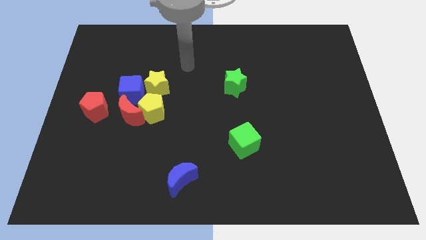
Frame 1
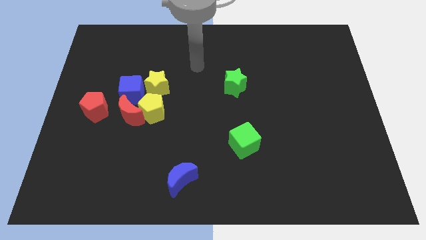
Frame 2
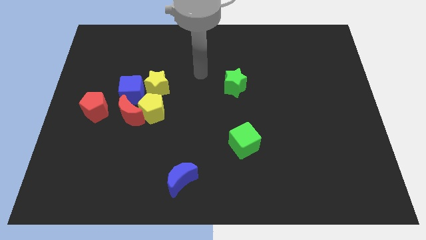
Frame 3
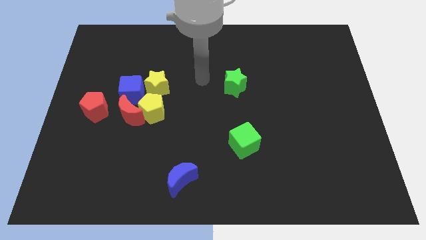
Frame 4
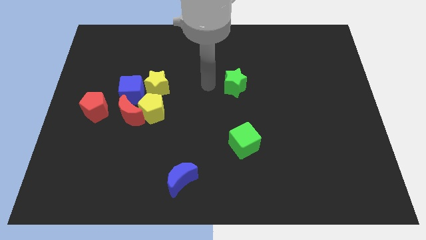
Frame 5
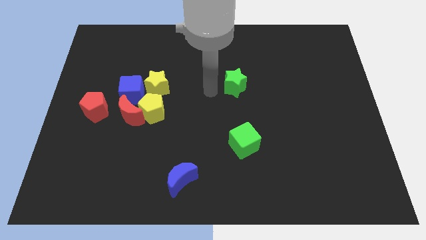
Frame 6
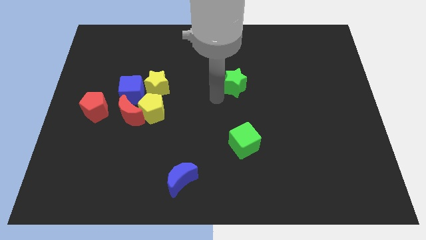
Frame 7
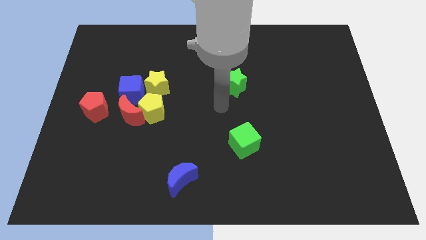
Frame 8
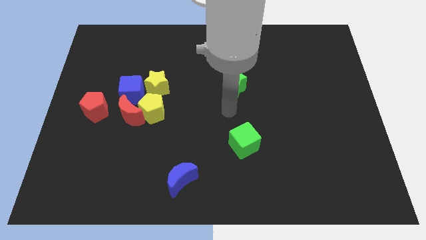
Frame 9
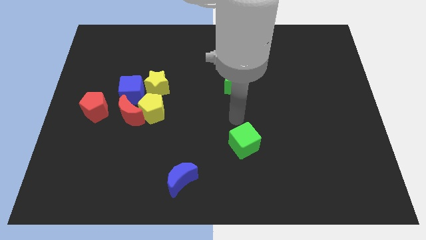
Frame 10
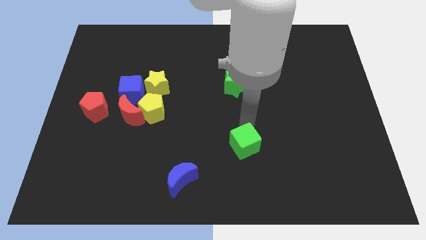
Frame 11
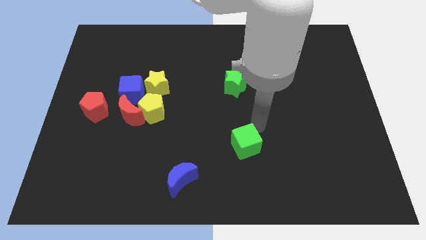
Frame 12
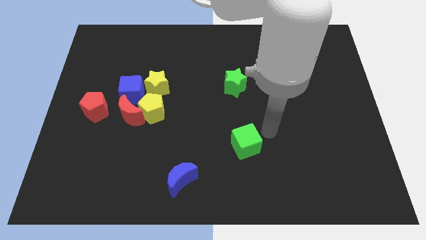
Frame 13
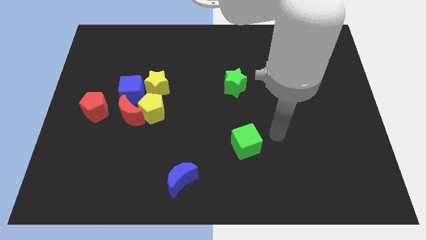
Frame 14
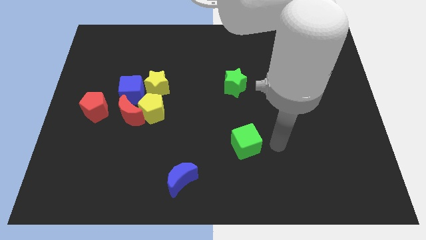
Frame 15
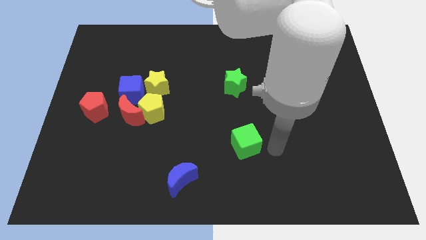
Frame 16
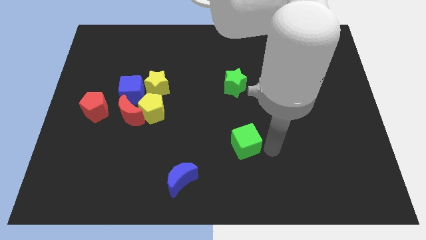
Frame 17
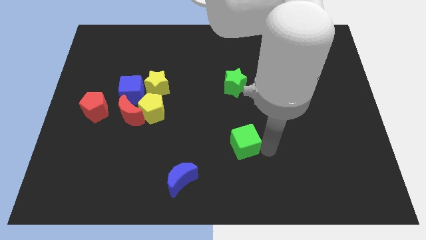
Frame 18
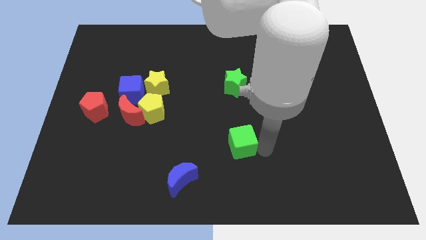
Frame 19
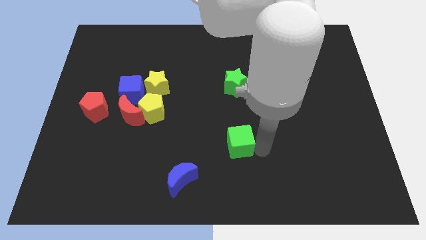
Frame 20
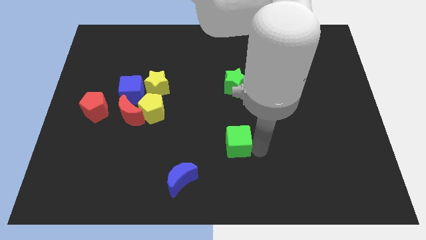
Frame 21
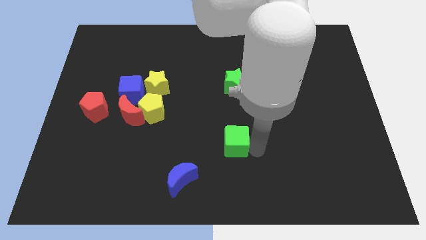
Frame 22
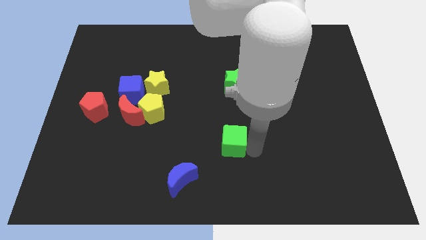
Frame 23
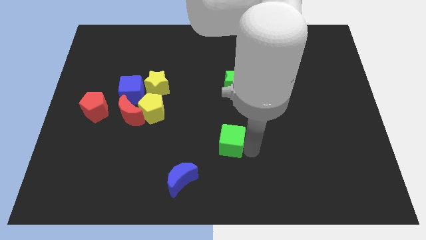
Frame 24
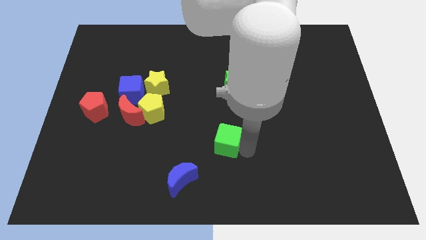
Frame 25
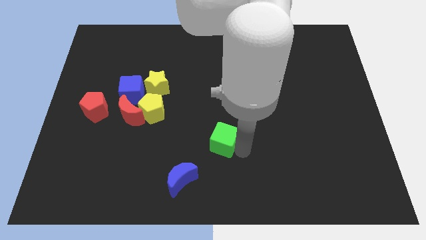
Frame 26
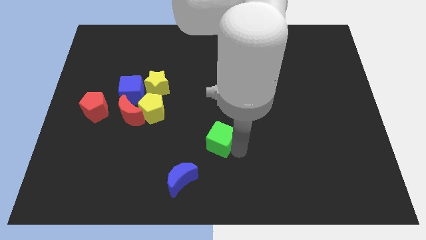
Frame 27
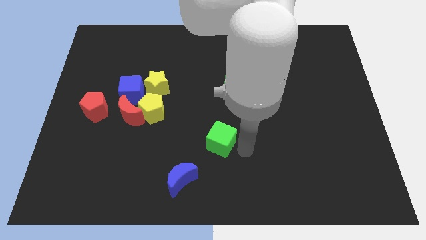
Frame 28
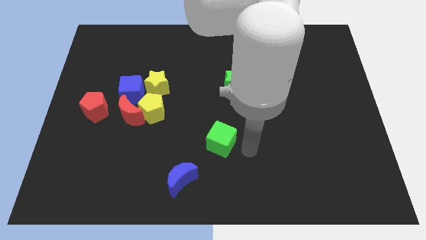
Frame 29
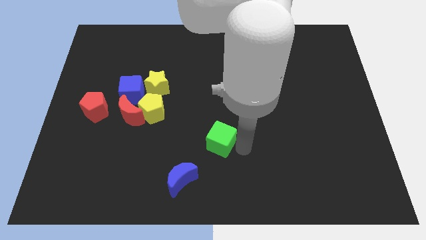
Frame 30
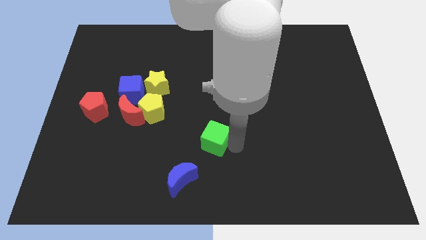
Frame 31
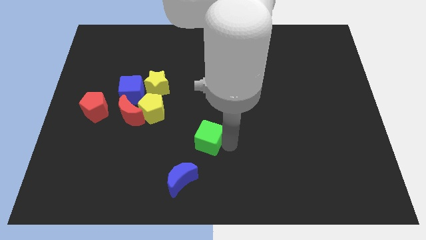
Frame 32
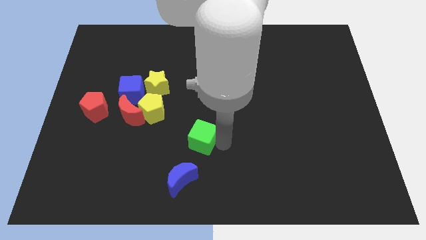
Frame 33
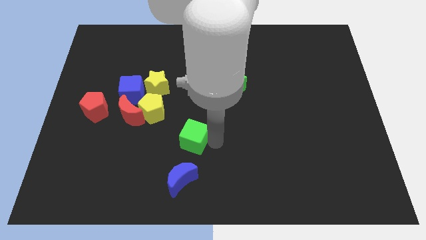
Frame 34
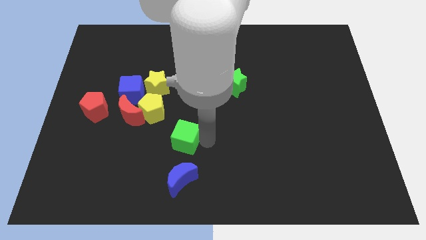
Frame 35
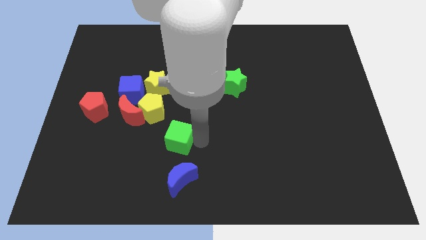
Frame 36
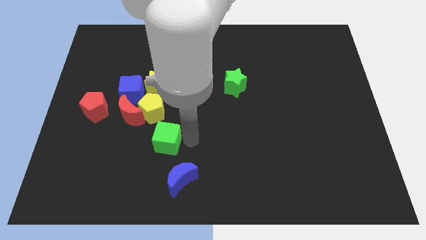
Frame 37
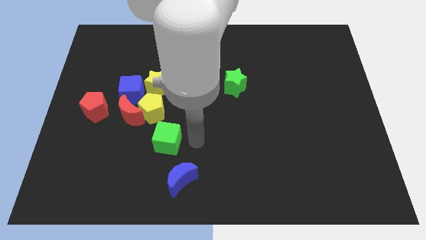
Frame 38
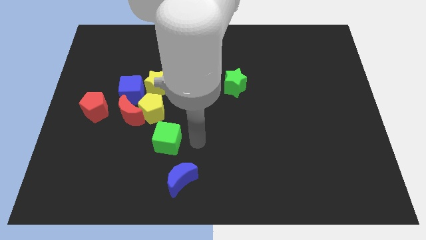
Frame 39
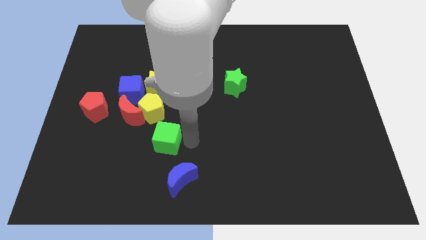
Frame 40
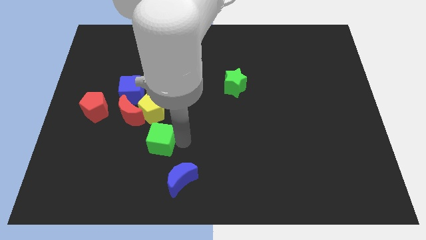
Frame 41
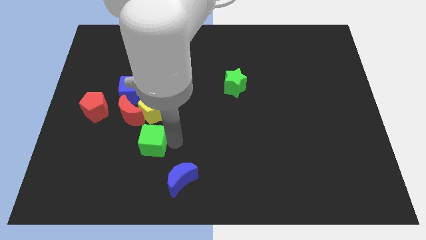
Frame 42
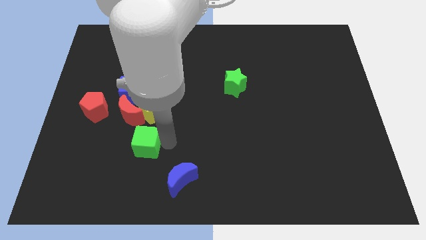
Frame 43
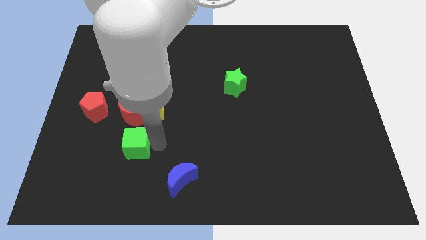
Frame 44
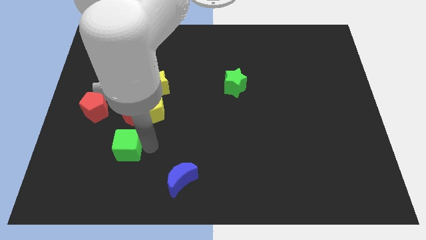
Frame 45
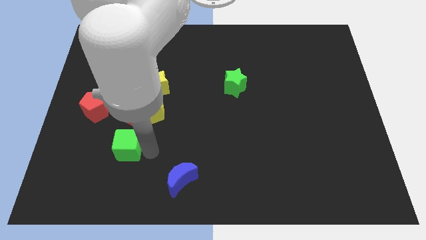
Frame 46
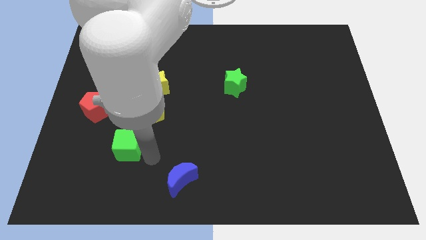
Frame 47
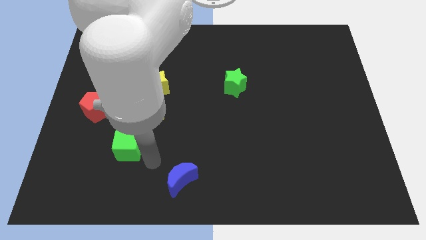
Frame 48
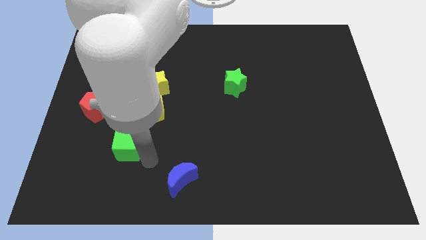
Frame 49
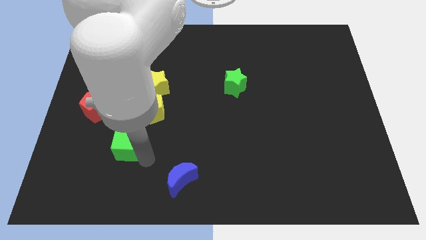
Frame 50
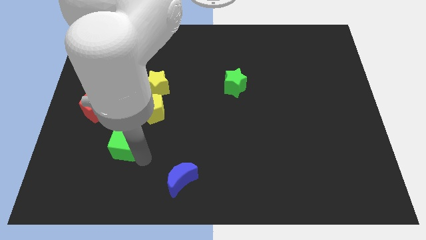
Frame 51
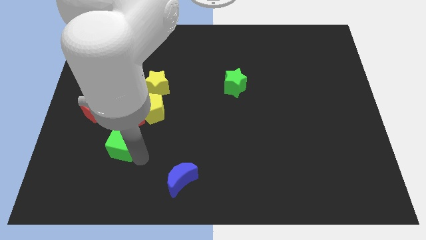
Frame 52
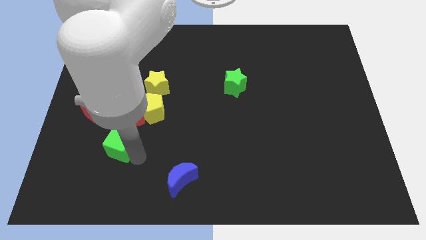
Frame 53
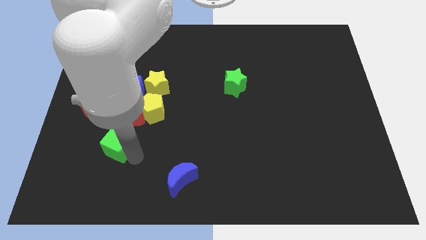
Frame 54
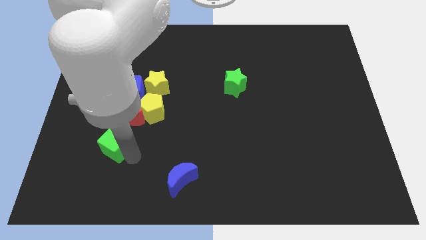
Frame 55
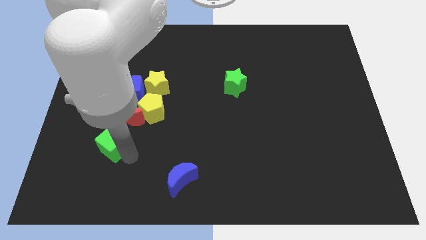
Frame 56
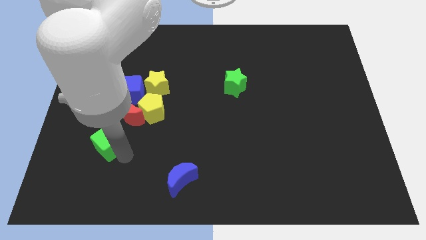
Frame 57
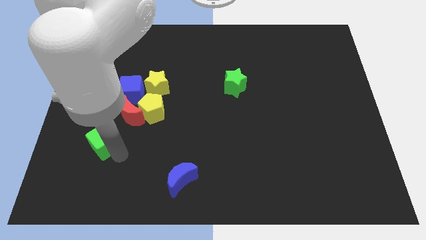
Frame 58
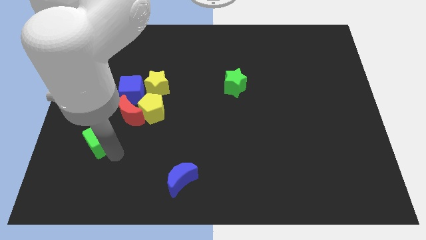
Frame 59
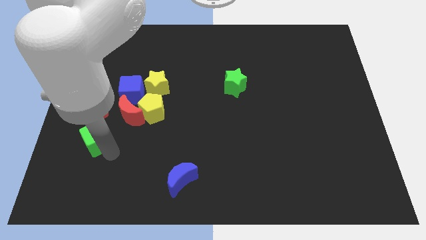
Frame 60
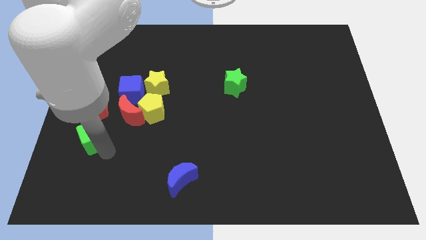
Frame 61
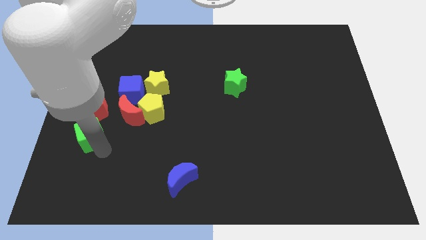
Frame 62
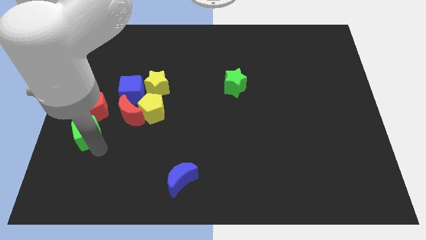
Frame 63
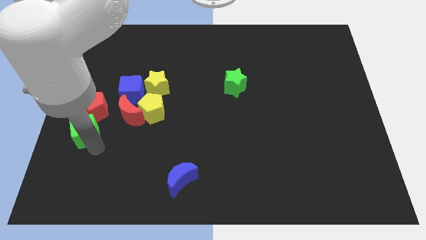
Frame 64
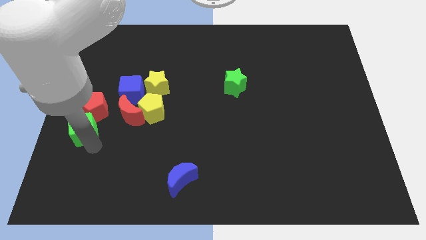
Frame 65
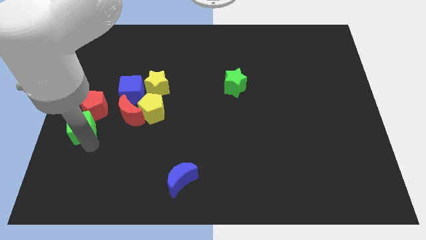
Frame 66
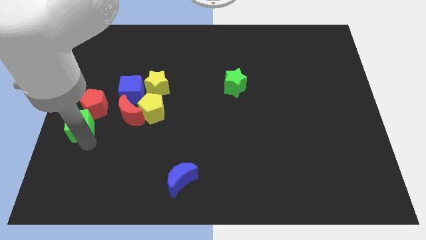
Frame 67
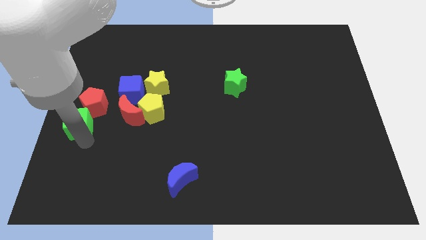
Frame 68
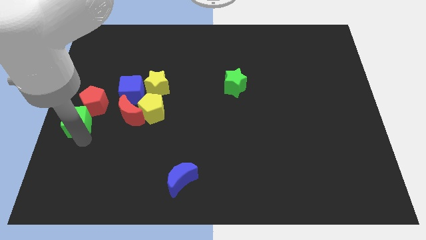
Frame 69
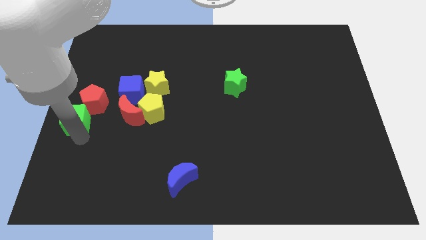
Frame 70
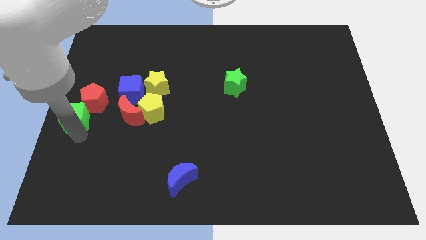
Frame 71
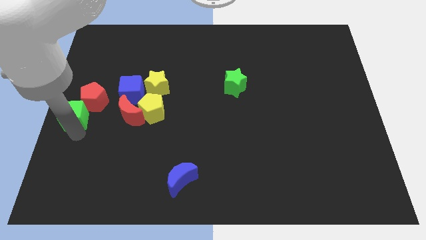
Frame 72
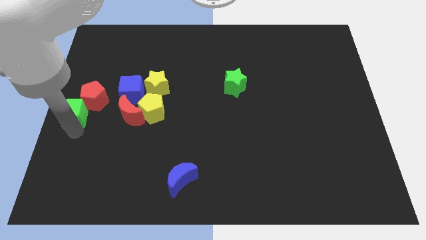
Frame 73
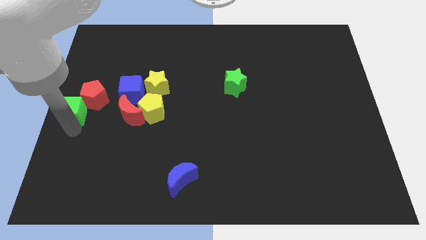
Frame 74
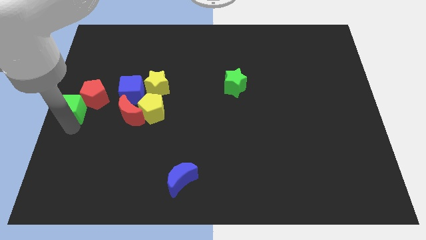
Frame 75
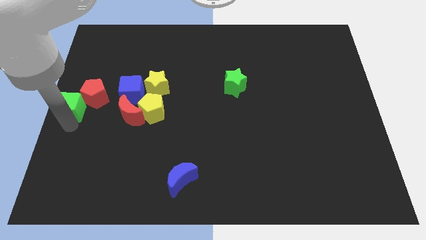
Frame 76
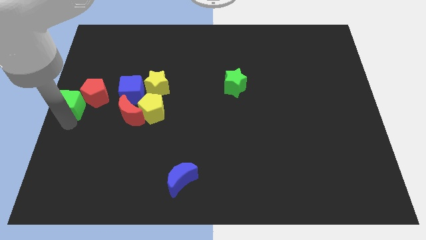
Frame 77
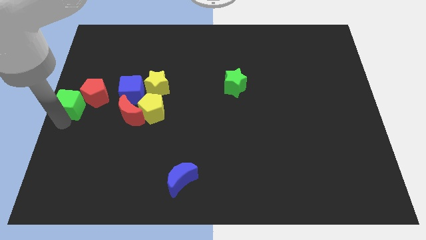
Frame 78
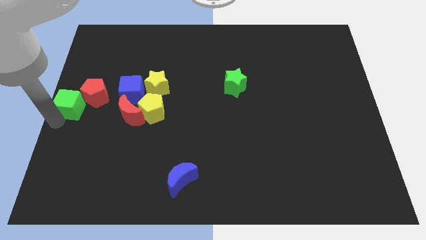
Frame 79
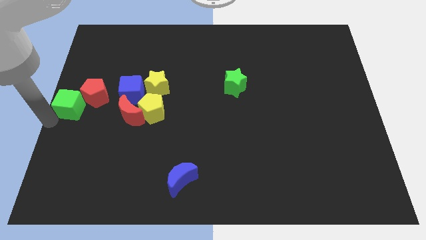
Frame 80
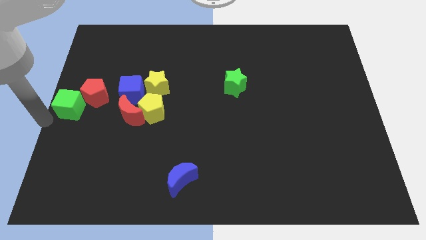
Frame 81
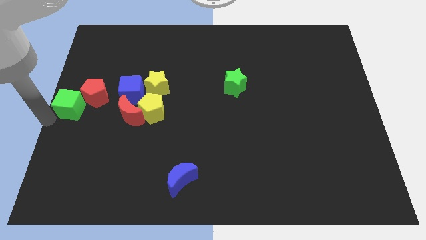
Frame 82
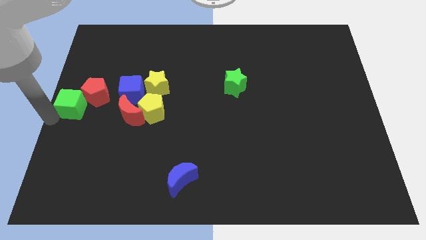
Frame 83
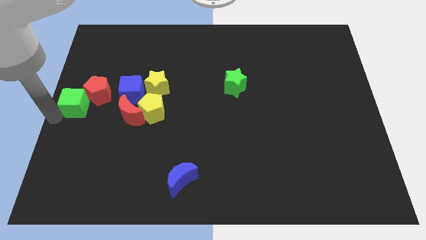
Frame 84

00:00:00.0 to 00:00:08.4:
slide the green cube close to the red pentagon
